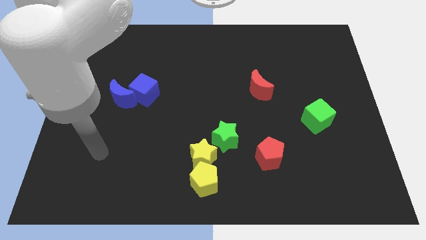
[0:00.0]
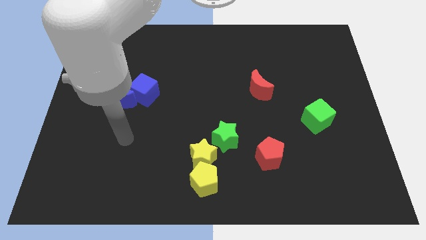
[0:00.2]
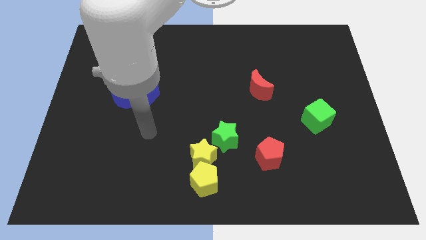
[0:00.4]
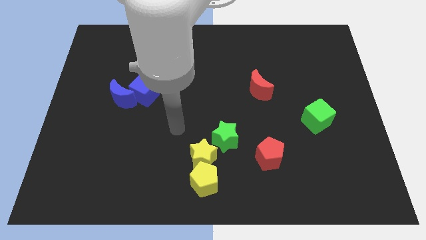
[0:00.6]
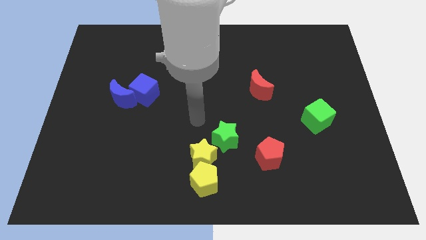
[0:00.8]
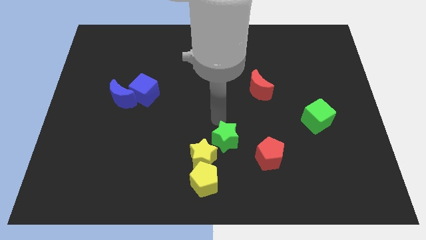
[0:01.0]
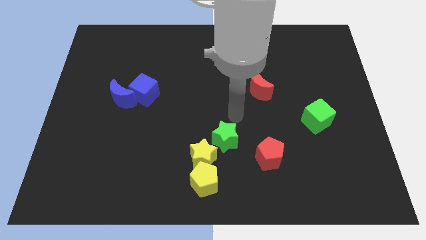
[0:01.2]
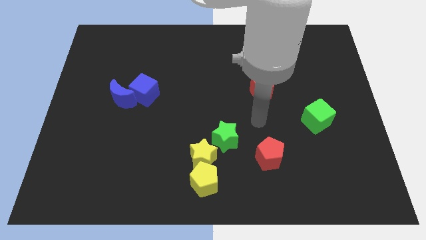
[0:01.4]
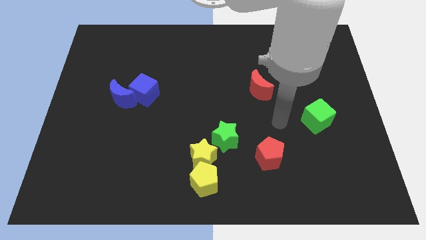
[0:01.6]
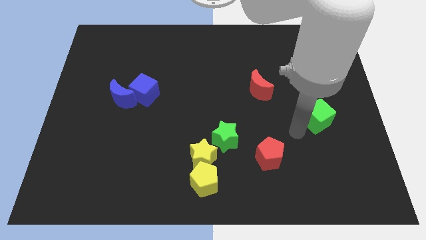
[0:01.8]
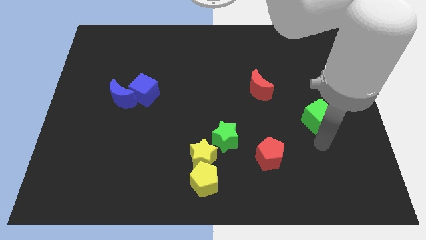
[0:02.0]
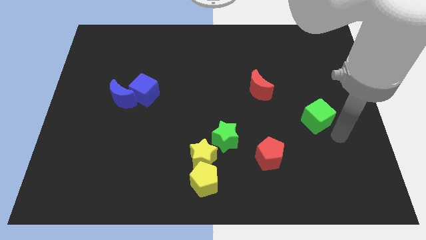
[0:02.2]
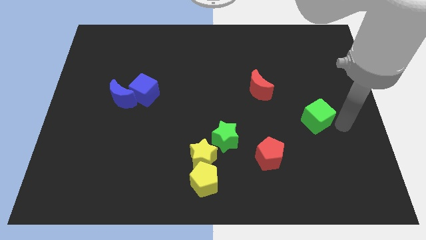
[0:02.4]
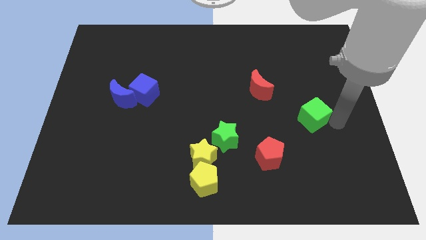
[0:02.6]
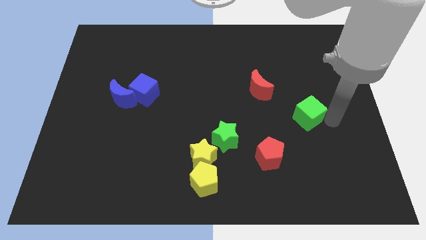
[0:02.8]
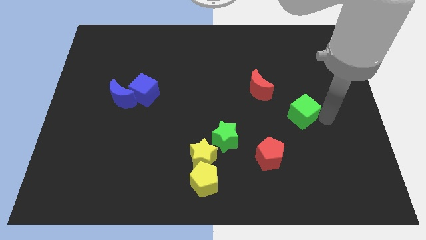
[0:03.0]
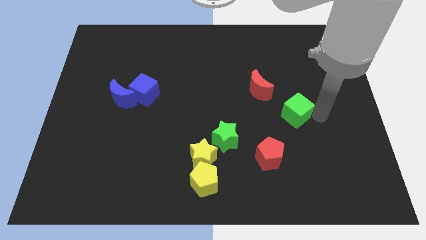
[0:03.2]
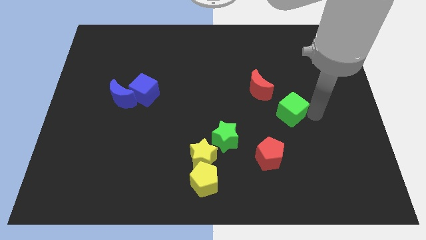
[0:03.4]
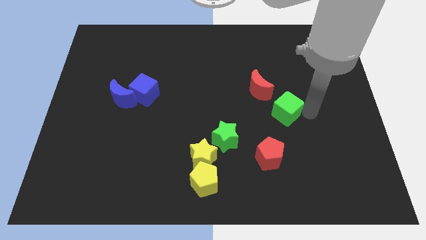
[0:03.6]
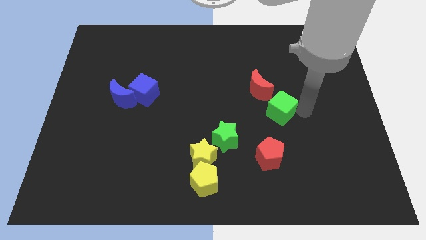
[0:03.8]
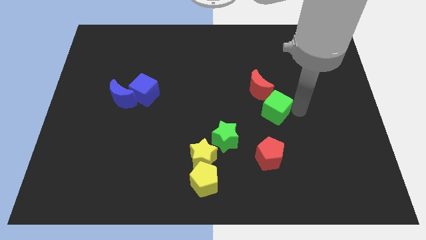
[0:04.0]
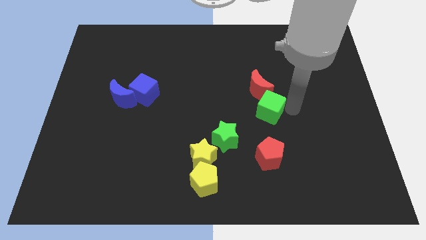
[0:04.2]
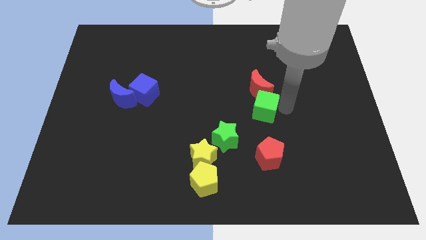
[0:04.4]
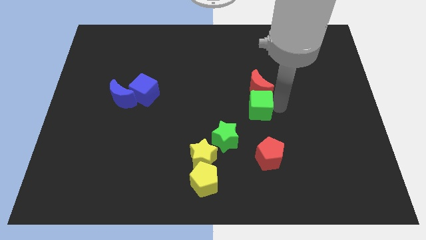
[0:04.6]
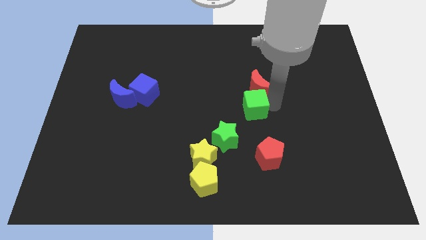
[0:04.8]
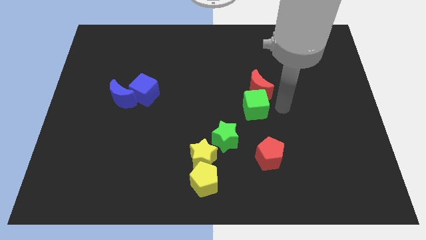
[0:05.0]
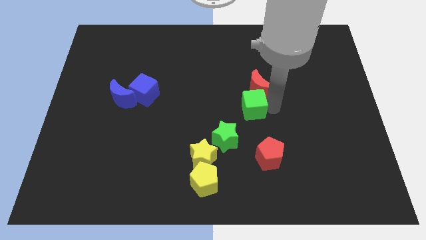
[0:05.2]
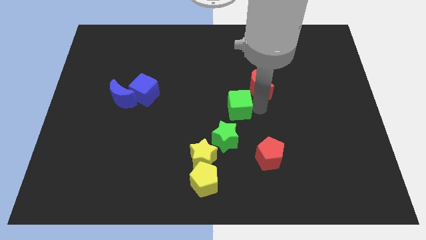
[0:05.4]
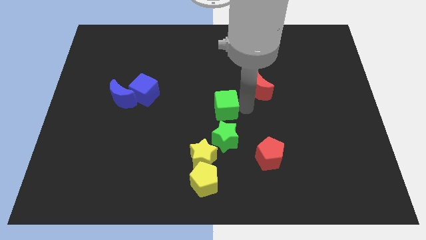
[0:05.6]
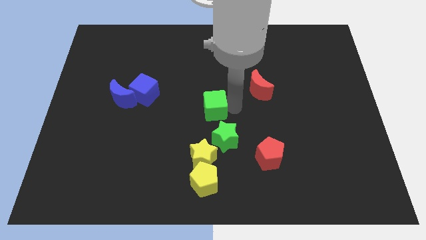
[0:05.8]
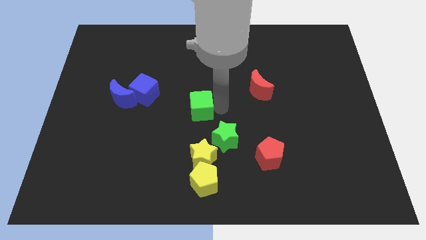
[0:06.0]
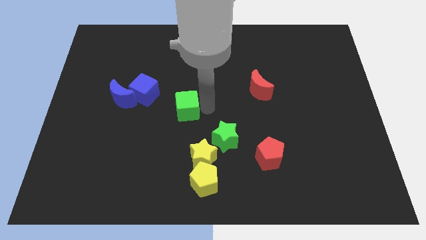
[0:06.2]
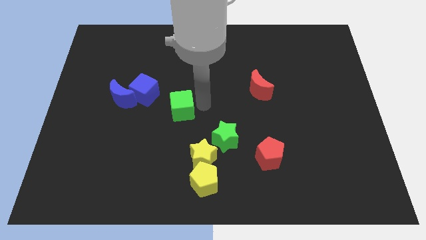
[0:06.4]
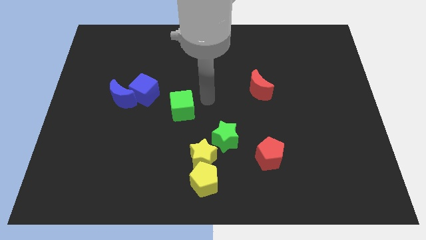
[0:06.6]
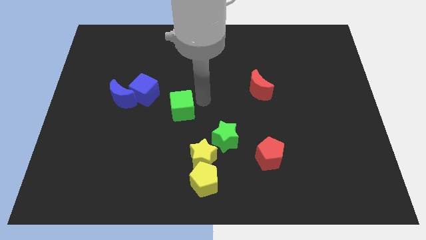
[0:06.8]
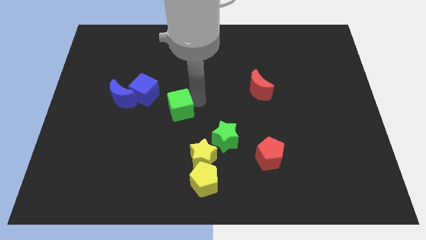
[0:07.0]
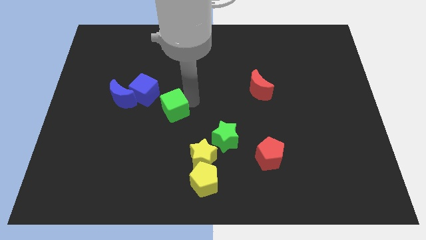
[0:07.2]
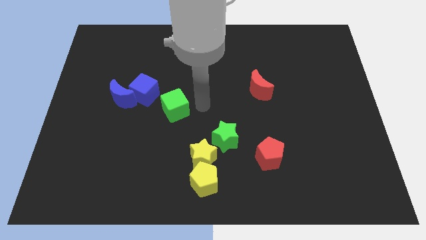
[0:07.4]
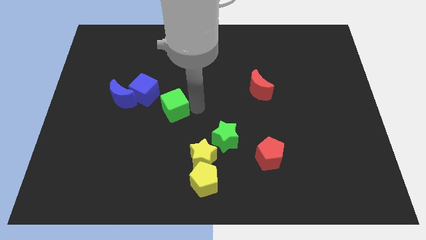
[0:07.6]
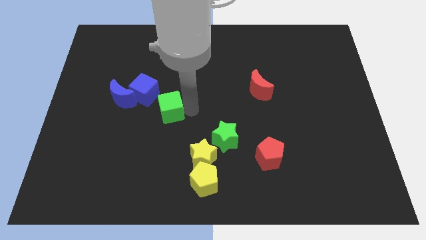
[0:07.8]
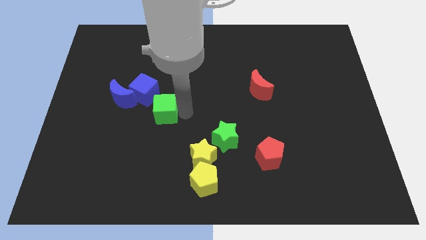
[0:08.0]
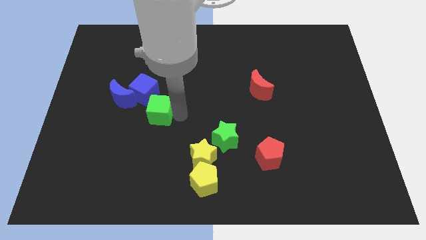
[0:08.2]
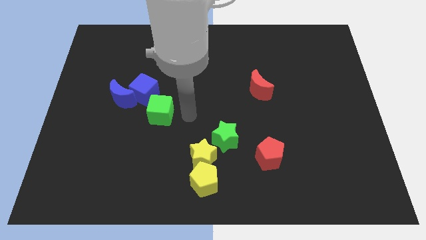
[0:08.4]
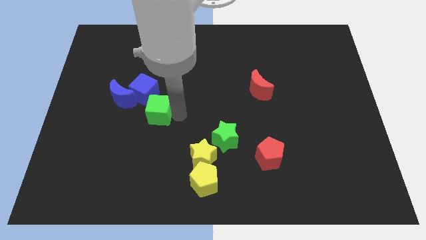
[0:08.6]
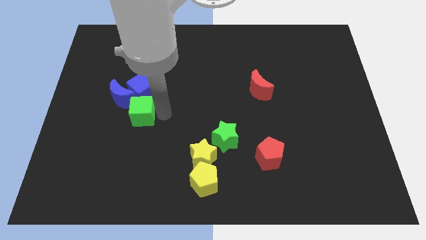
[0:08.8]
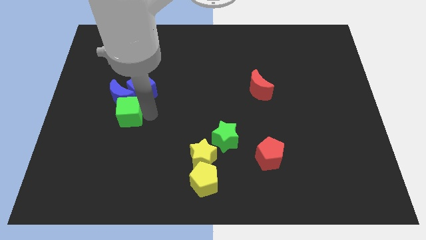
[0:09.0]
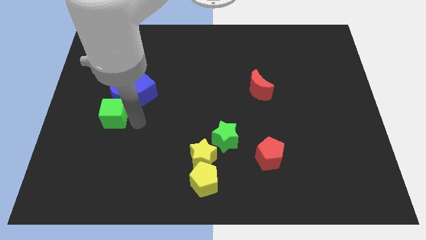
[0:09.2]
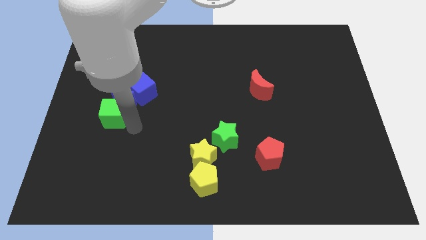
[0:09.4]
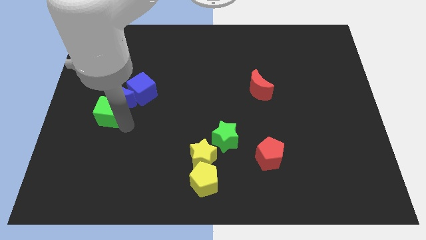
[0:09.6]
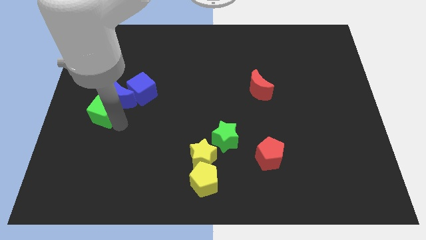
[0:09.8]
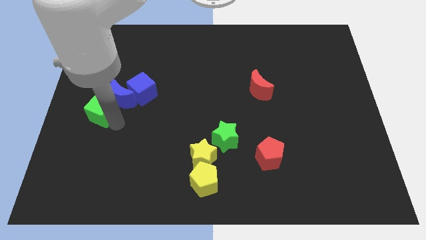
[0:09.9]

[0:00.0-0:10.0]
slide the green cube to the left side of the board

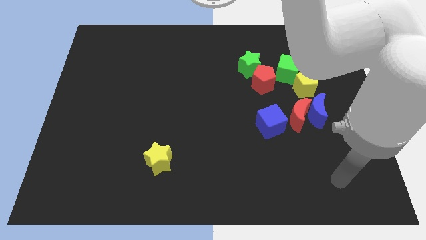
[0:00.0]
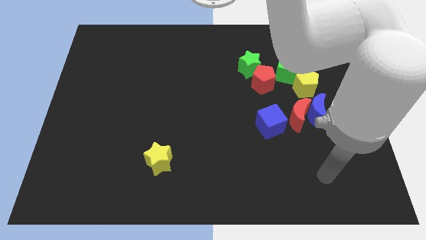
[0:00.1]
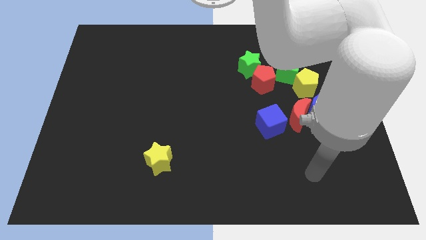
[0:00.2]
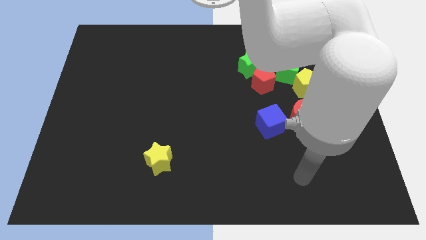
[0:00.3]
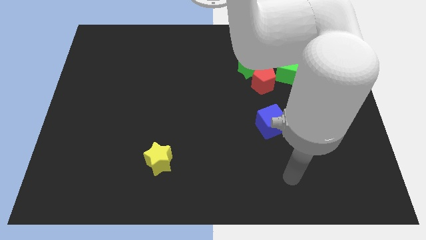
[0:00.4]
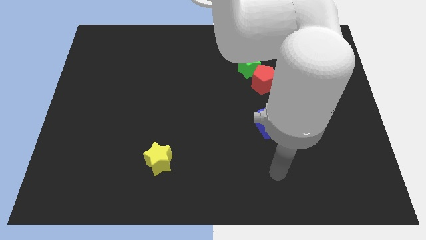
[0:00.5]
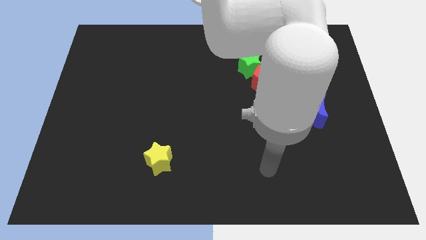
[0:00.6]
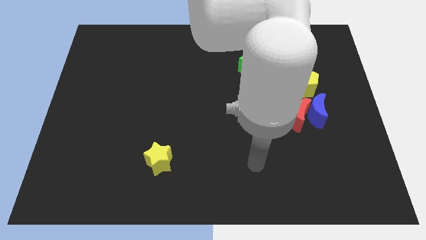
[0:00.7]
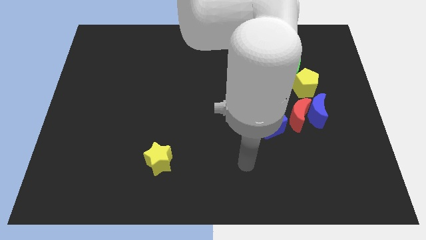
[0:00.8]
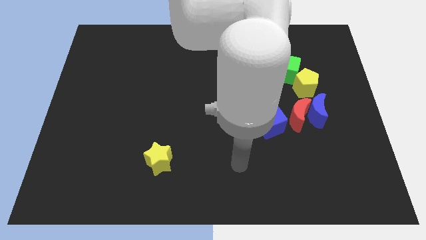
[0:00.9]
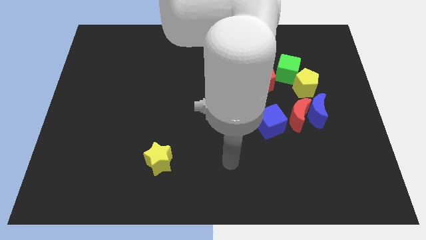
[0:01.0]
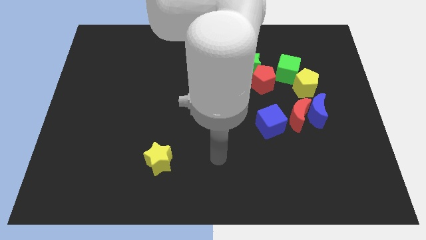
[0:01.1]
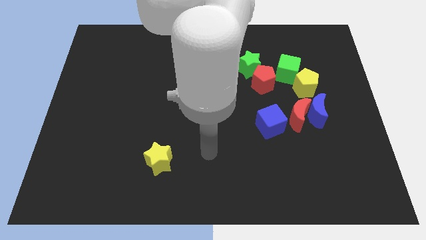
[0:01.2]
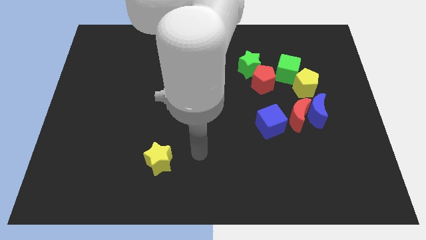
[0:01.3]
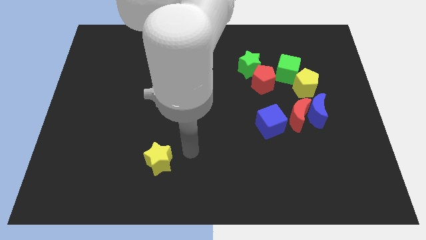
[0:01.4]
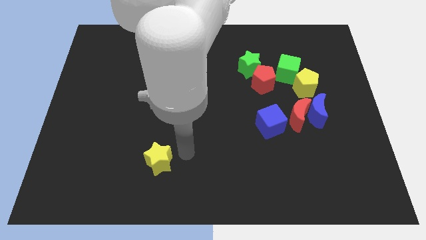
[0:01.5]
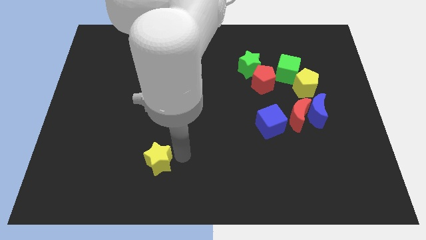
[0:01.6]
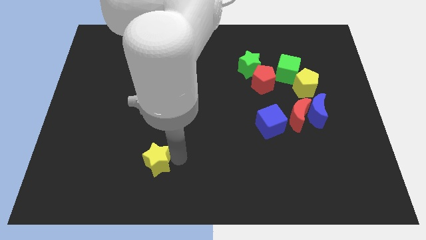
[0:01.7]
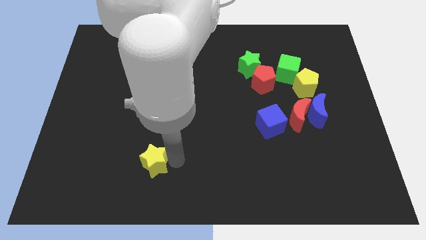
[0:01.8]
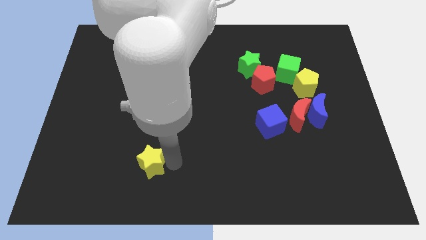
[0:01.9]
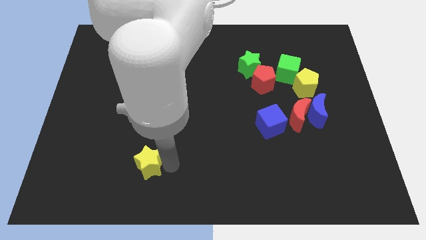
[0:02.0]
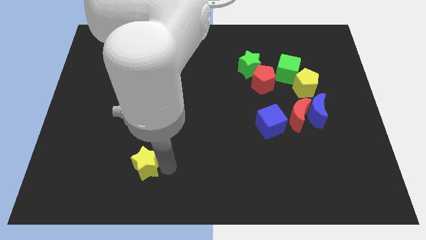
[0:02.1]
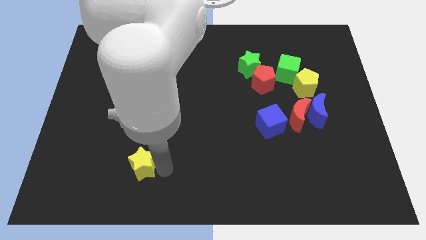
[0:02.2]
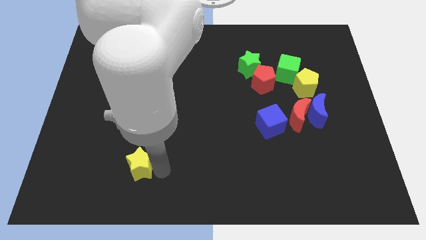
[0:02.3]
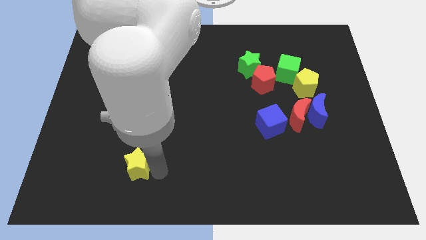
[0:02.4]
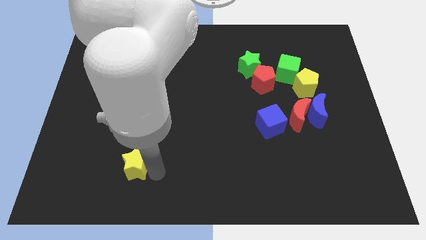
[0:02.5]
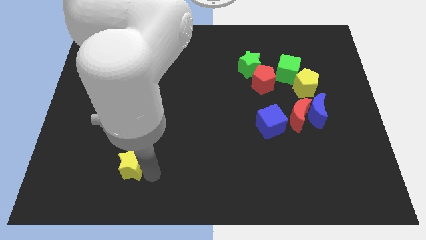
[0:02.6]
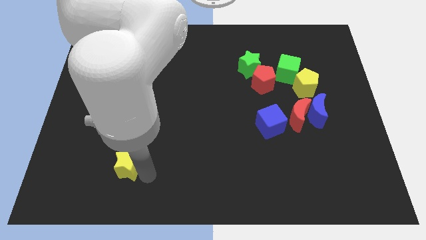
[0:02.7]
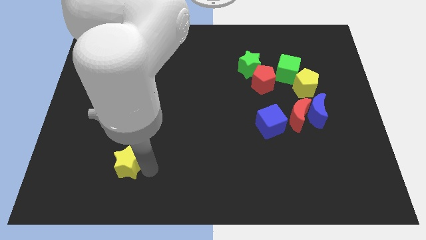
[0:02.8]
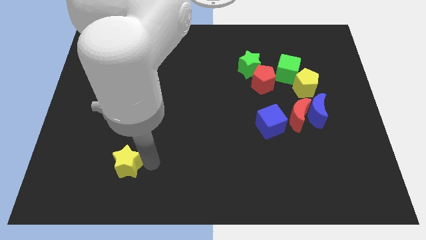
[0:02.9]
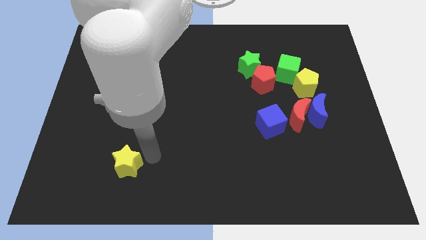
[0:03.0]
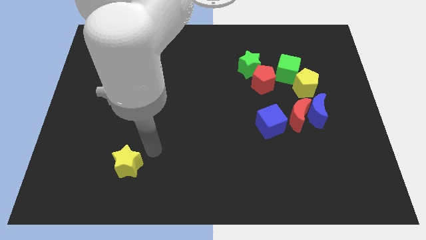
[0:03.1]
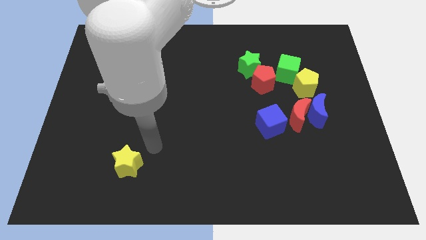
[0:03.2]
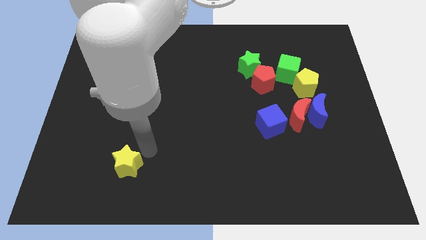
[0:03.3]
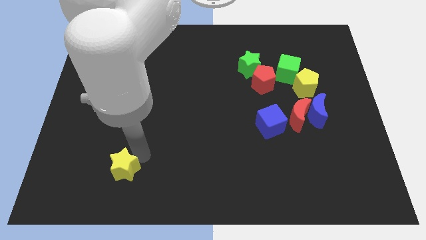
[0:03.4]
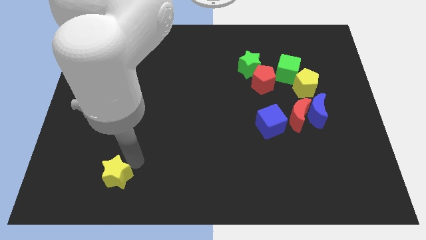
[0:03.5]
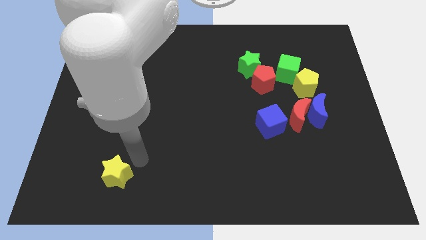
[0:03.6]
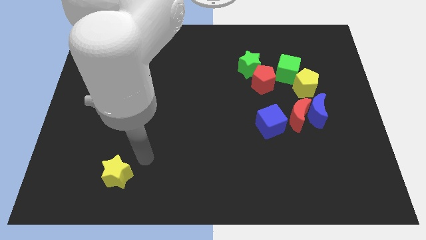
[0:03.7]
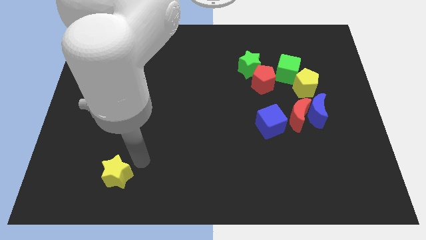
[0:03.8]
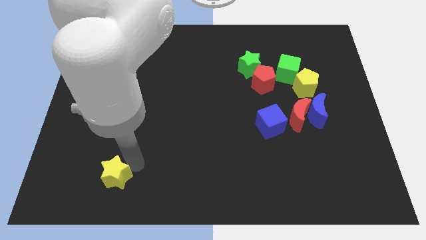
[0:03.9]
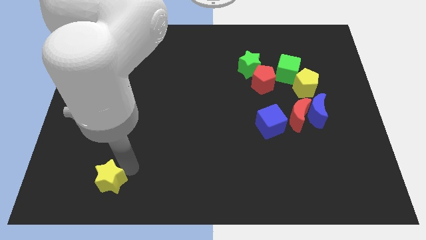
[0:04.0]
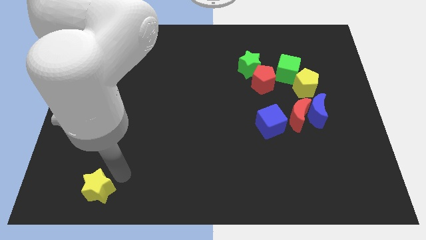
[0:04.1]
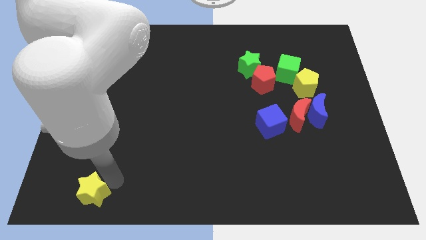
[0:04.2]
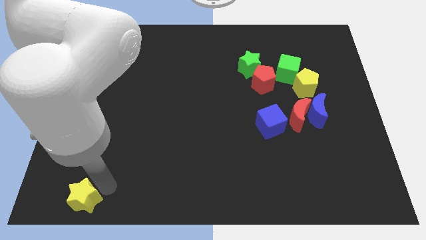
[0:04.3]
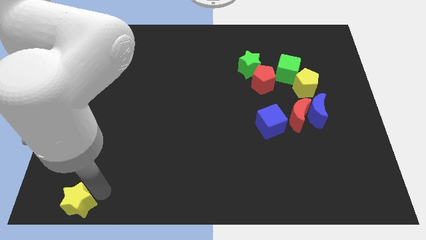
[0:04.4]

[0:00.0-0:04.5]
push the yellow star to the bottom left
